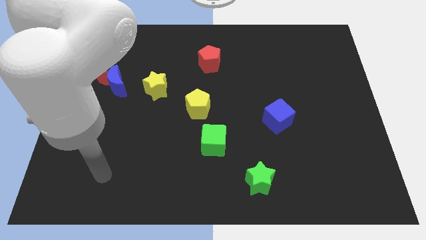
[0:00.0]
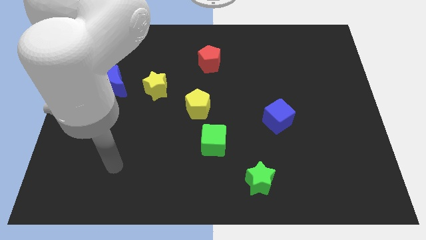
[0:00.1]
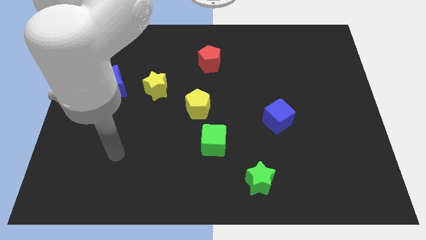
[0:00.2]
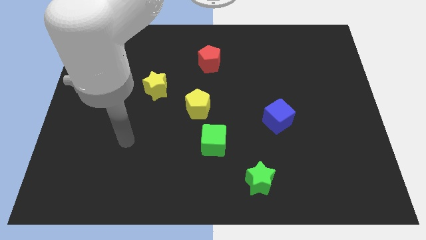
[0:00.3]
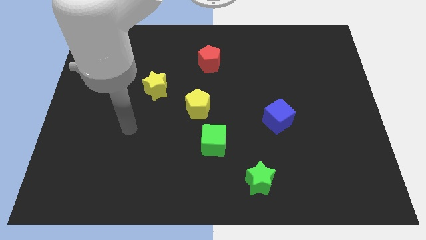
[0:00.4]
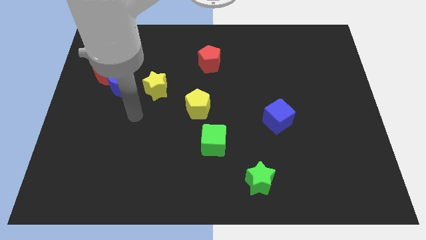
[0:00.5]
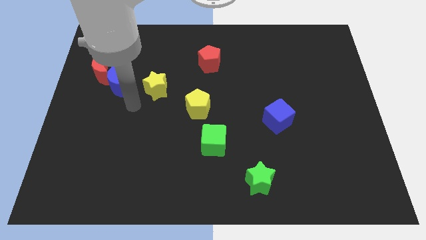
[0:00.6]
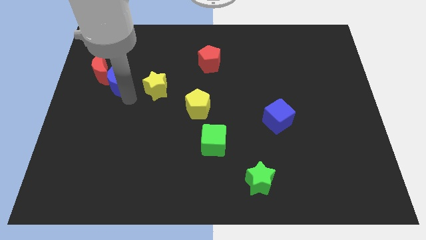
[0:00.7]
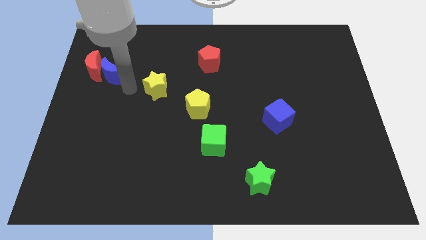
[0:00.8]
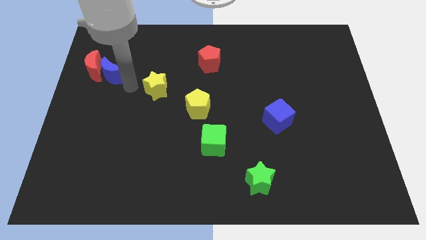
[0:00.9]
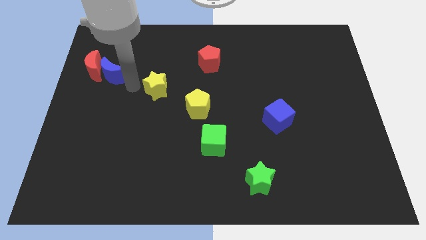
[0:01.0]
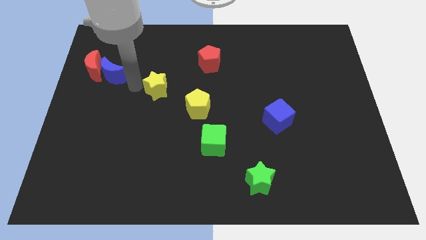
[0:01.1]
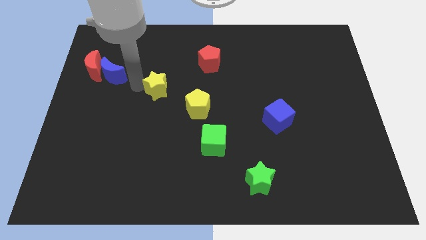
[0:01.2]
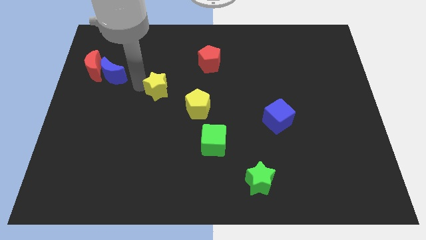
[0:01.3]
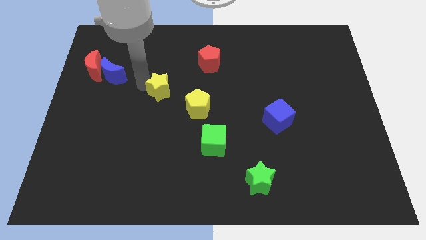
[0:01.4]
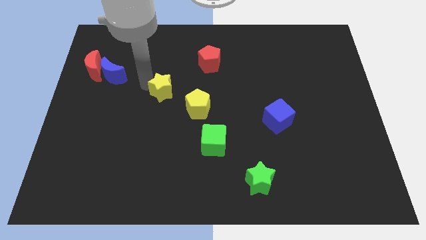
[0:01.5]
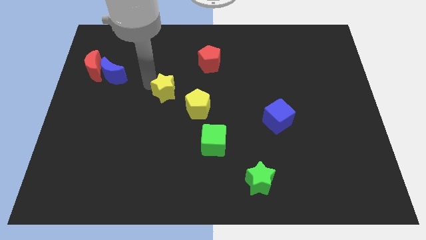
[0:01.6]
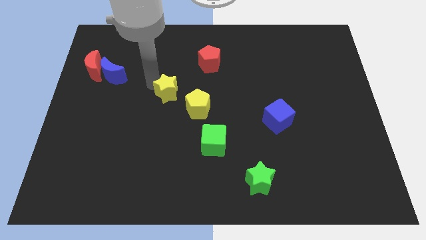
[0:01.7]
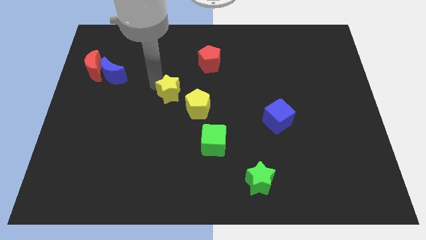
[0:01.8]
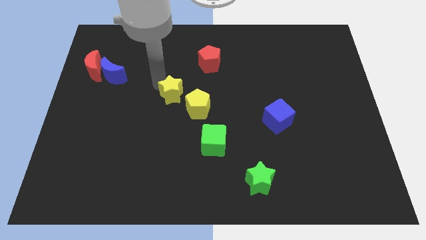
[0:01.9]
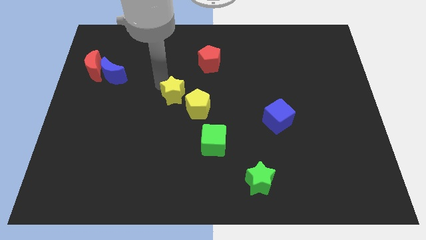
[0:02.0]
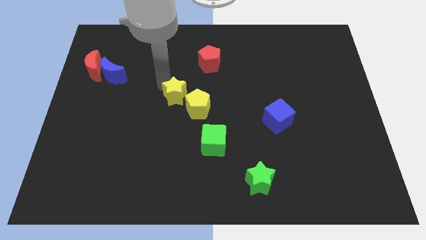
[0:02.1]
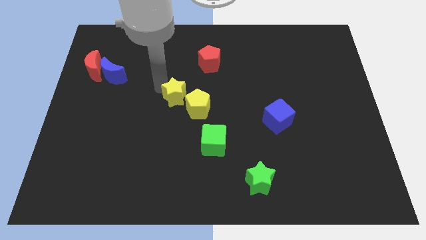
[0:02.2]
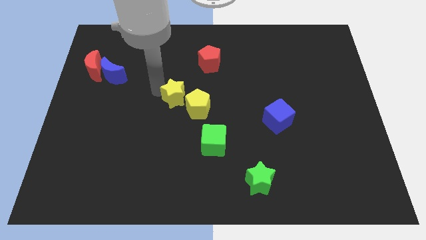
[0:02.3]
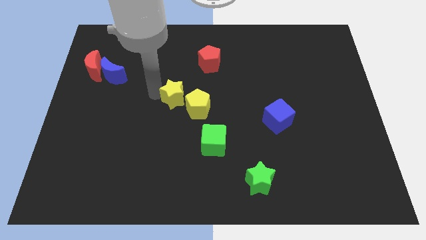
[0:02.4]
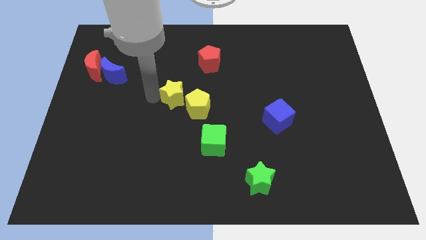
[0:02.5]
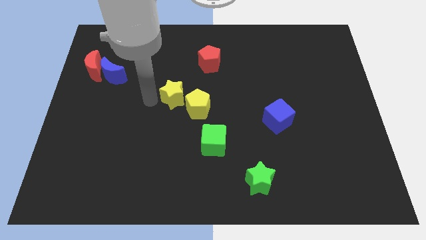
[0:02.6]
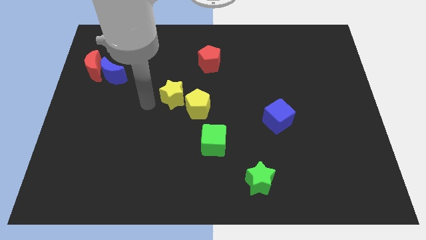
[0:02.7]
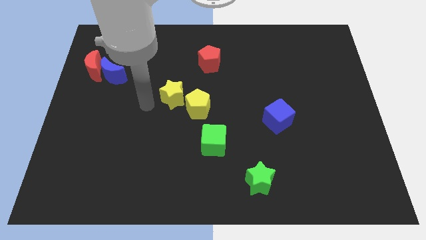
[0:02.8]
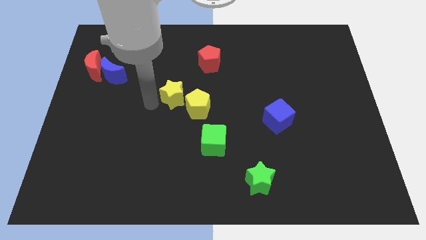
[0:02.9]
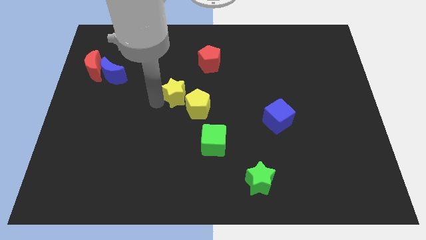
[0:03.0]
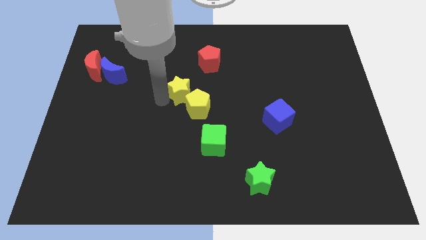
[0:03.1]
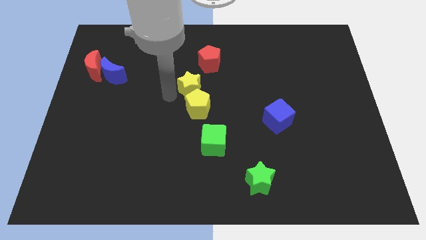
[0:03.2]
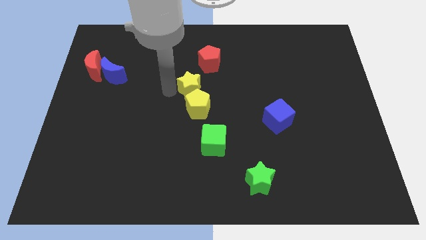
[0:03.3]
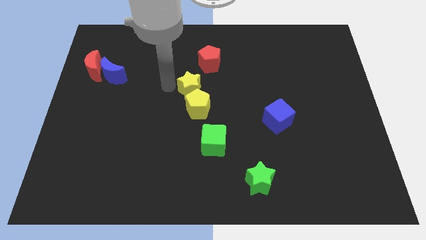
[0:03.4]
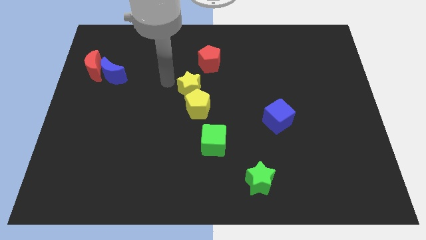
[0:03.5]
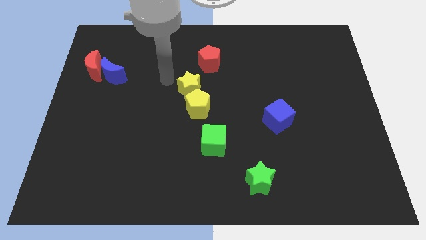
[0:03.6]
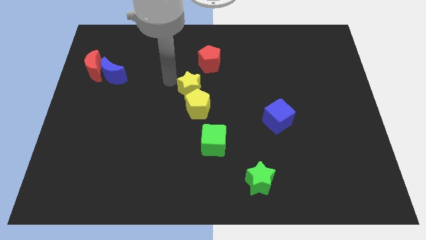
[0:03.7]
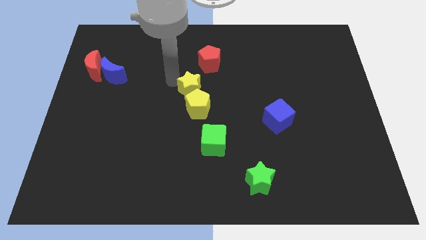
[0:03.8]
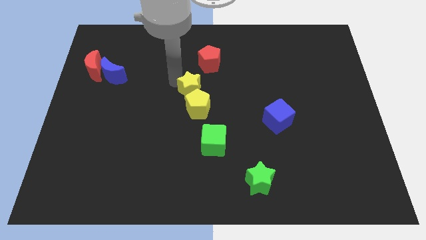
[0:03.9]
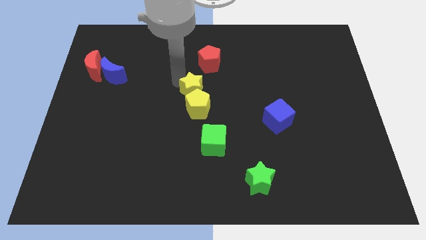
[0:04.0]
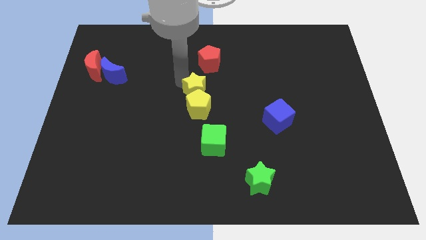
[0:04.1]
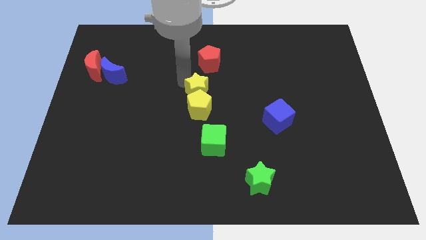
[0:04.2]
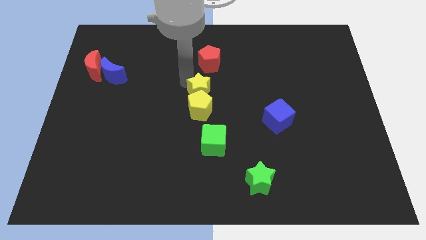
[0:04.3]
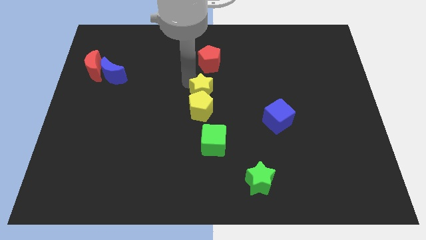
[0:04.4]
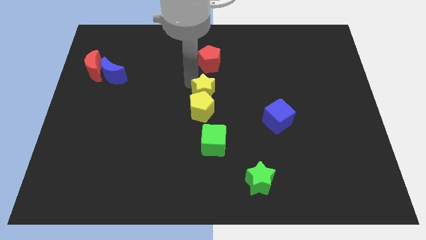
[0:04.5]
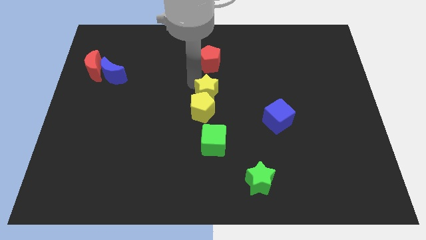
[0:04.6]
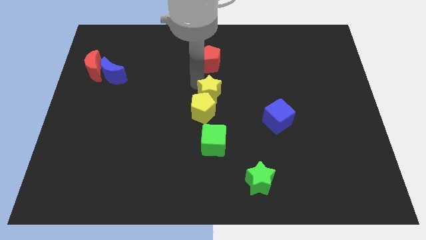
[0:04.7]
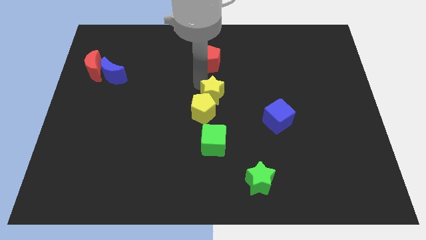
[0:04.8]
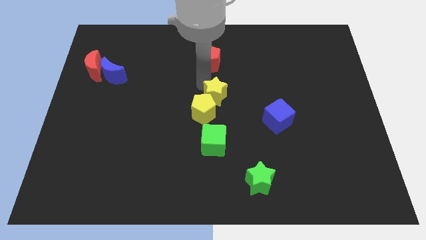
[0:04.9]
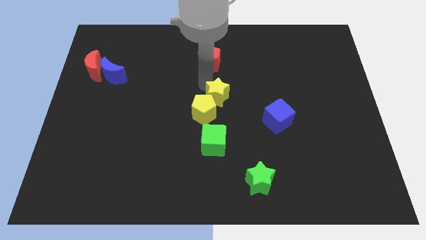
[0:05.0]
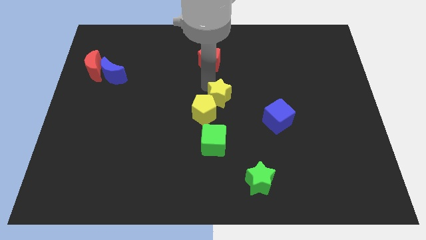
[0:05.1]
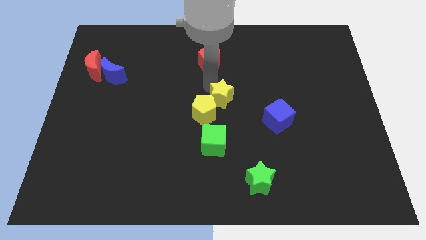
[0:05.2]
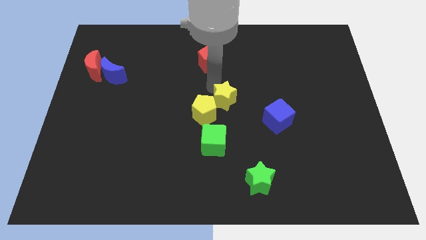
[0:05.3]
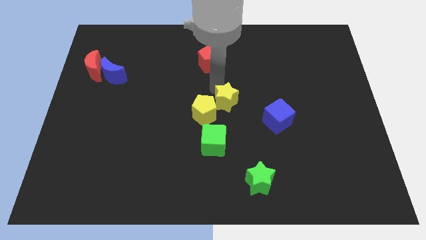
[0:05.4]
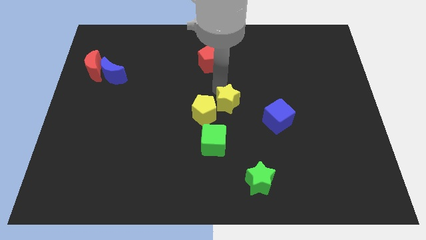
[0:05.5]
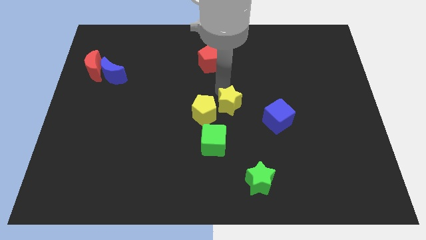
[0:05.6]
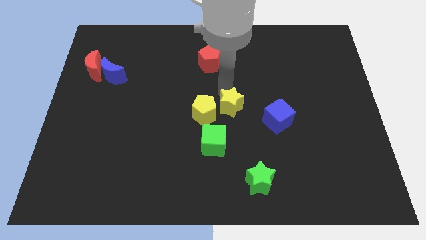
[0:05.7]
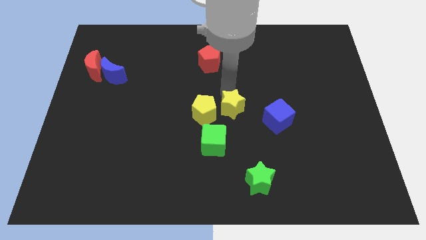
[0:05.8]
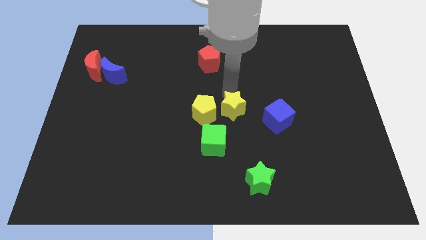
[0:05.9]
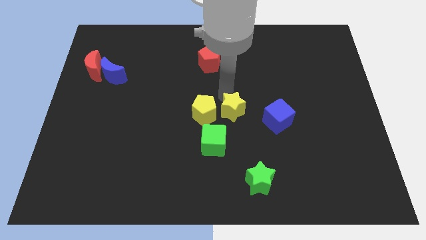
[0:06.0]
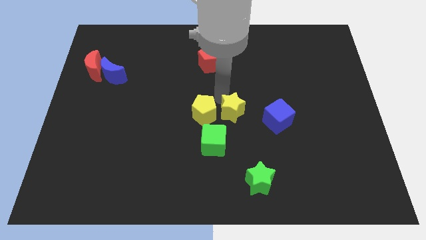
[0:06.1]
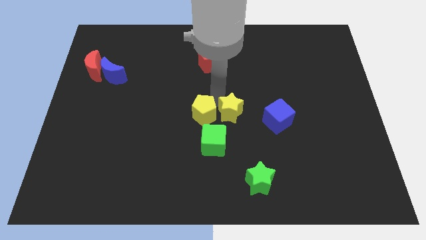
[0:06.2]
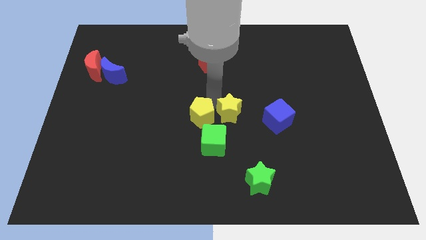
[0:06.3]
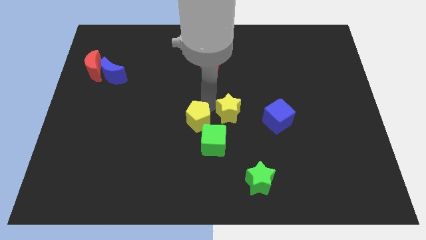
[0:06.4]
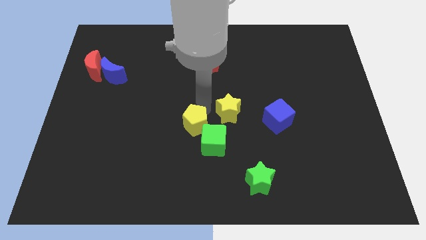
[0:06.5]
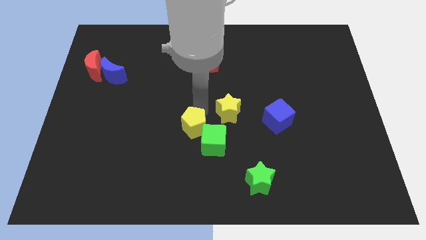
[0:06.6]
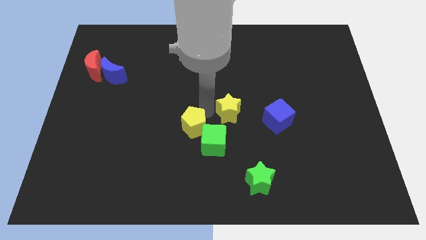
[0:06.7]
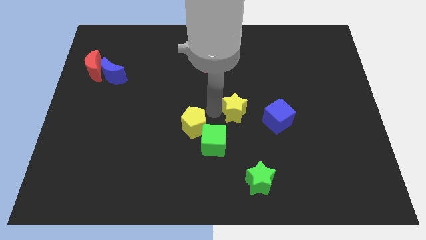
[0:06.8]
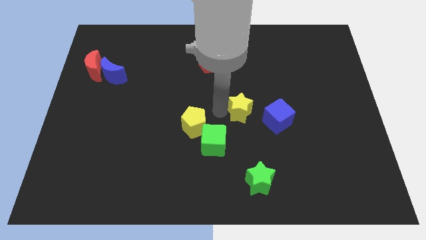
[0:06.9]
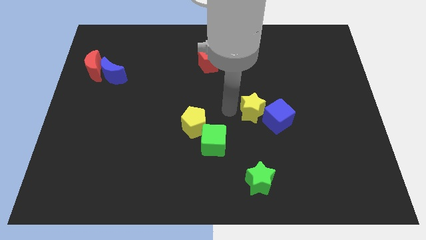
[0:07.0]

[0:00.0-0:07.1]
put the yellow star next to the blue cube

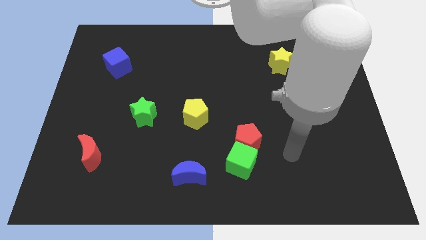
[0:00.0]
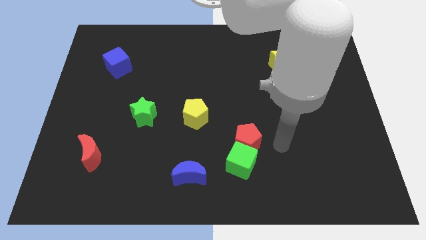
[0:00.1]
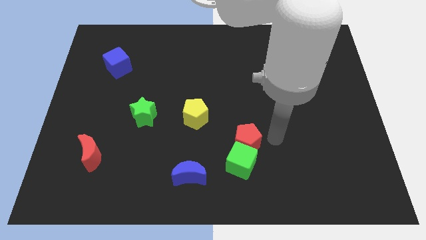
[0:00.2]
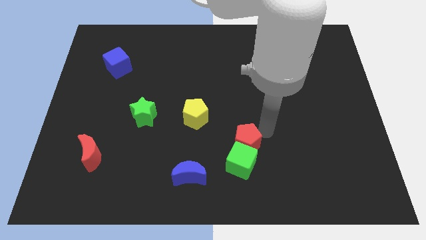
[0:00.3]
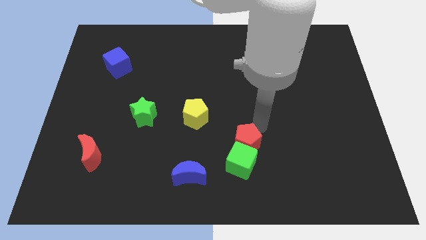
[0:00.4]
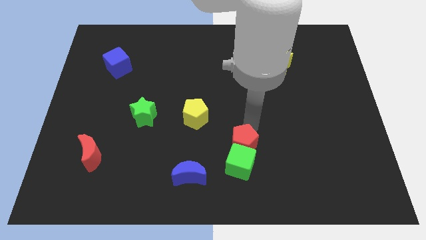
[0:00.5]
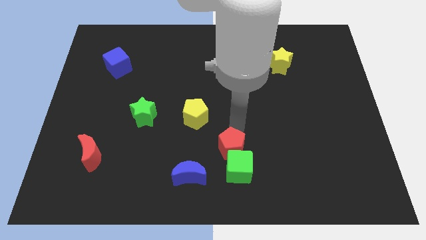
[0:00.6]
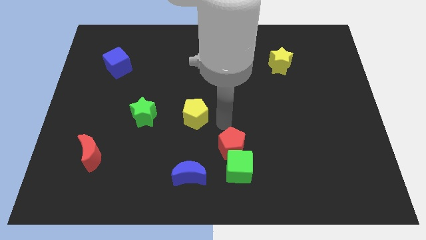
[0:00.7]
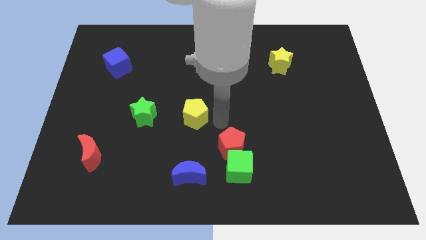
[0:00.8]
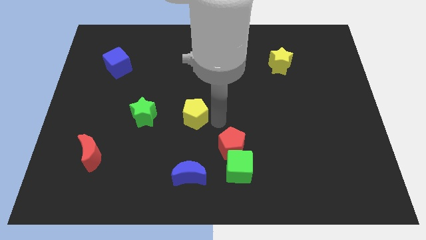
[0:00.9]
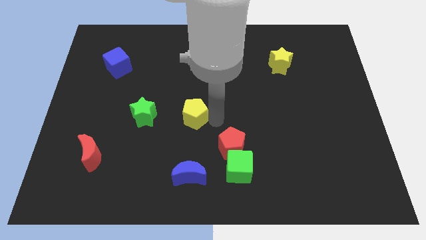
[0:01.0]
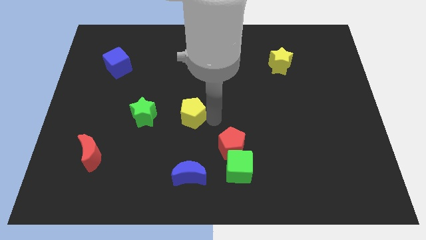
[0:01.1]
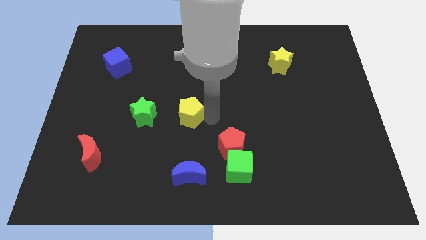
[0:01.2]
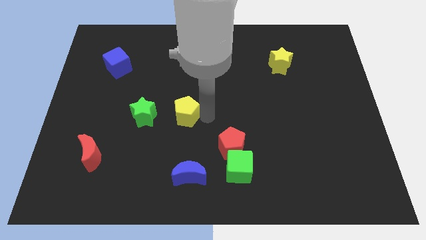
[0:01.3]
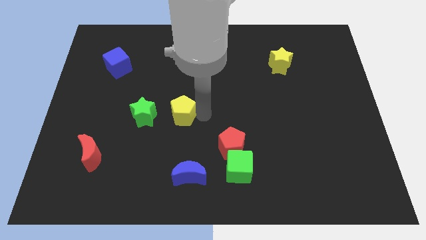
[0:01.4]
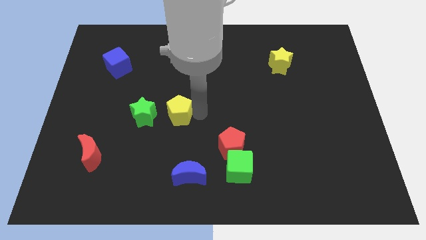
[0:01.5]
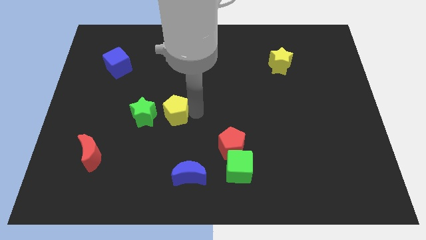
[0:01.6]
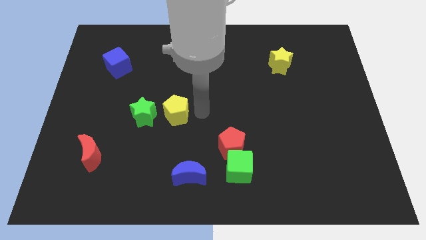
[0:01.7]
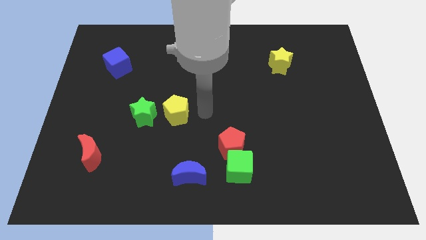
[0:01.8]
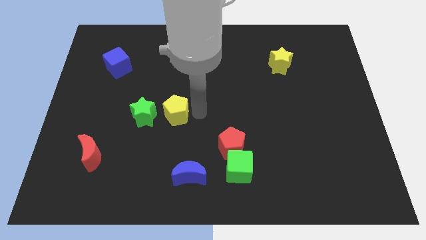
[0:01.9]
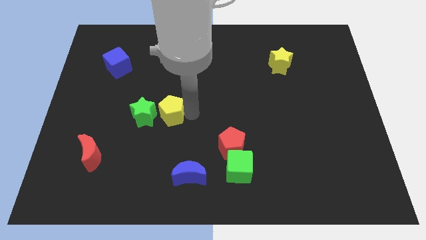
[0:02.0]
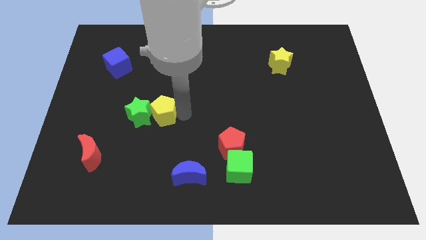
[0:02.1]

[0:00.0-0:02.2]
push the yellow pentagon close to the green star
